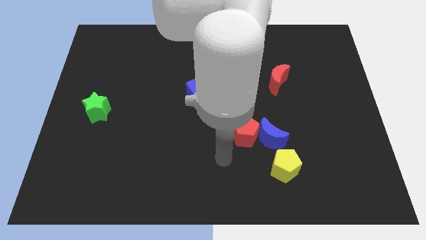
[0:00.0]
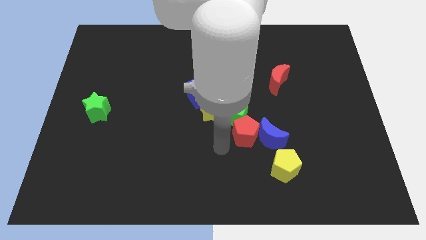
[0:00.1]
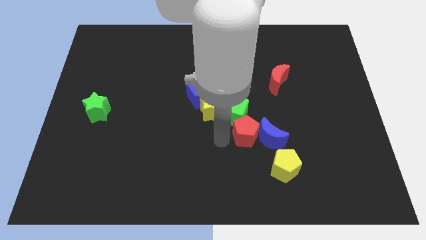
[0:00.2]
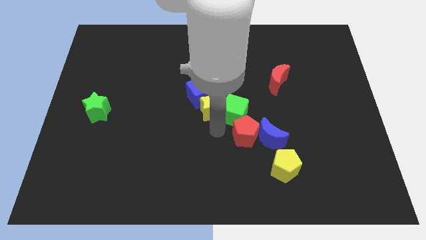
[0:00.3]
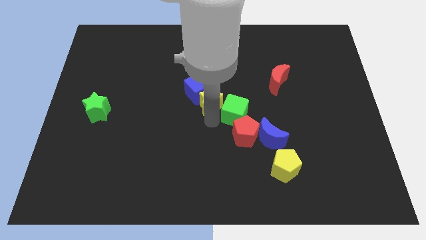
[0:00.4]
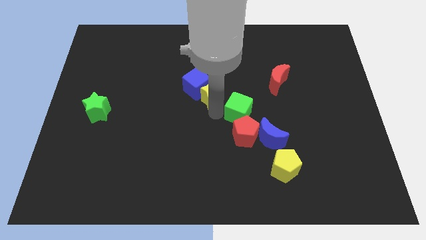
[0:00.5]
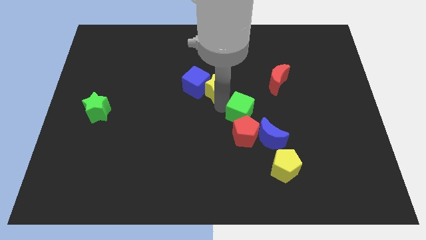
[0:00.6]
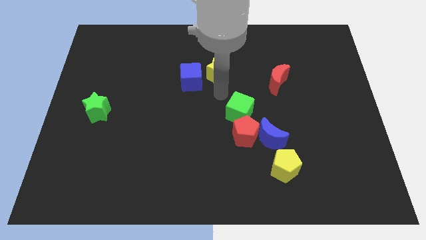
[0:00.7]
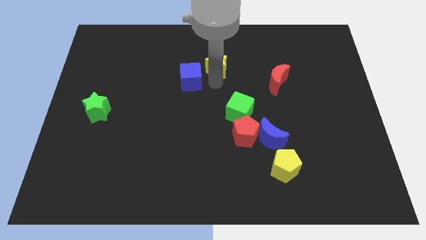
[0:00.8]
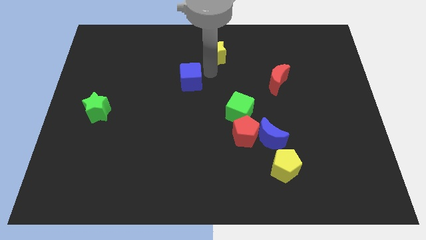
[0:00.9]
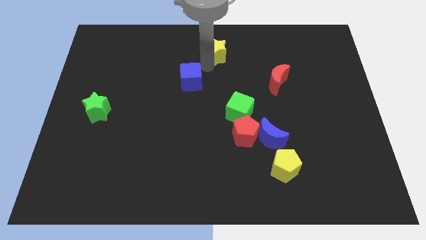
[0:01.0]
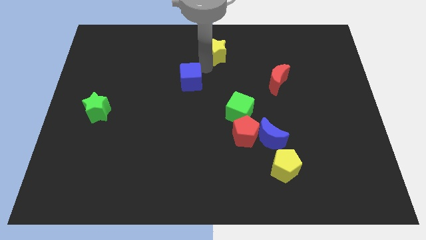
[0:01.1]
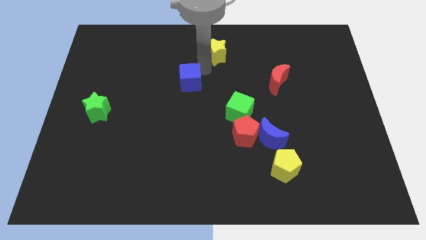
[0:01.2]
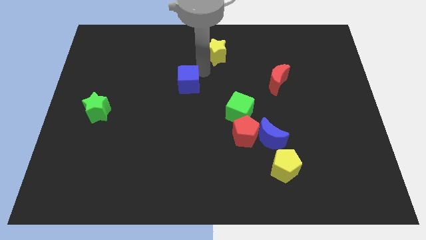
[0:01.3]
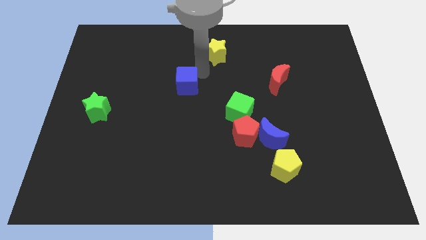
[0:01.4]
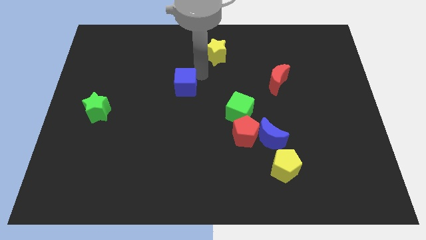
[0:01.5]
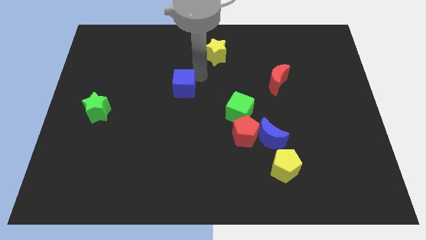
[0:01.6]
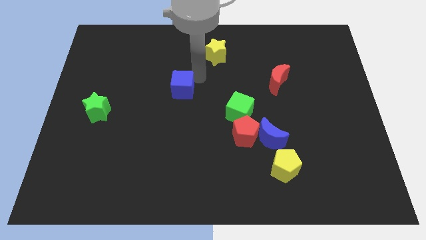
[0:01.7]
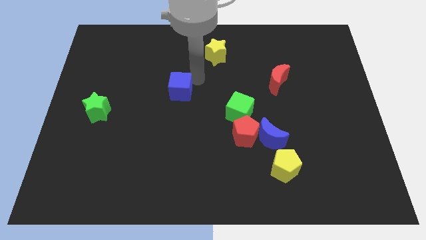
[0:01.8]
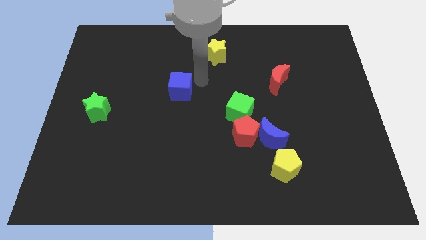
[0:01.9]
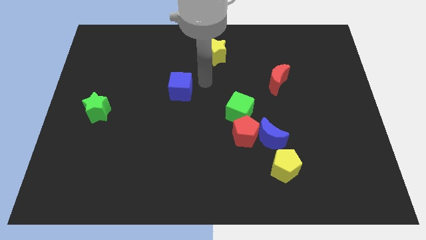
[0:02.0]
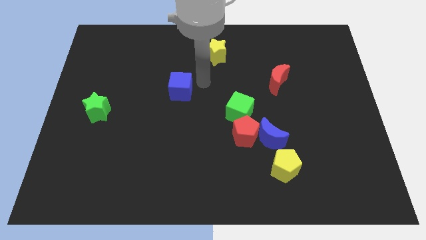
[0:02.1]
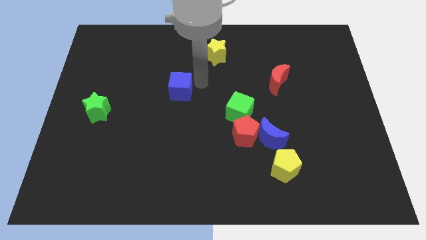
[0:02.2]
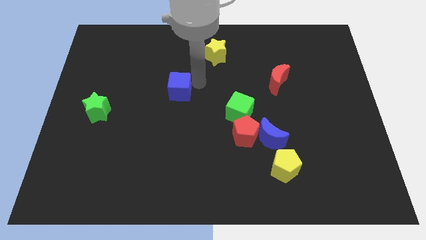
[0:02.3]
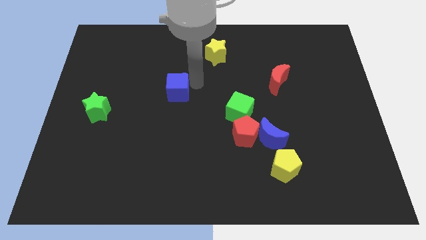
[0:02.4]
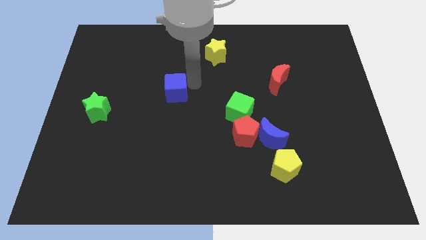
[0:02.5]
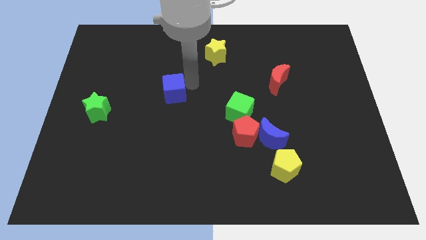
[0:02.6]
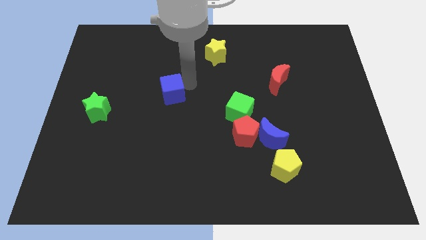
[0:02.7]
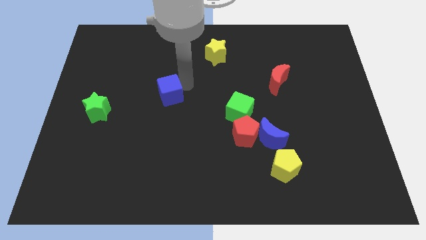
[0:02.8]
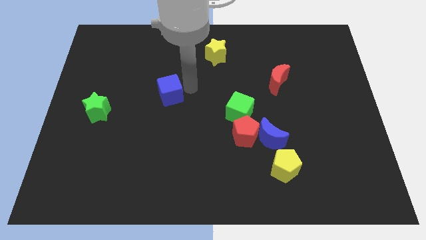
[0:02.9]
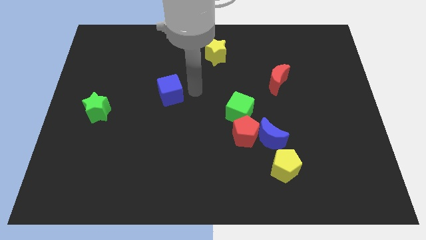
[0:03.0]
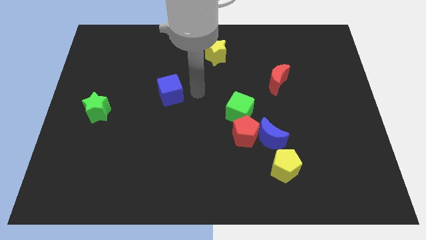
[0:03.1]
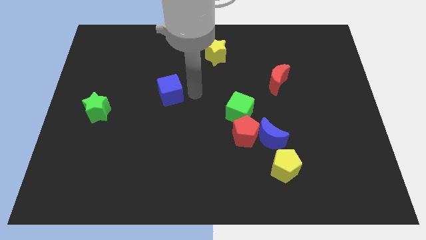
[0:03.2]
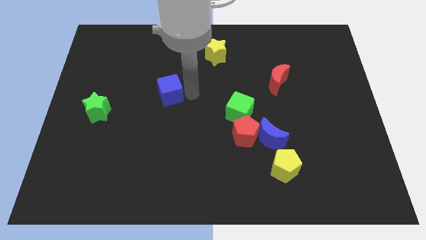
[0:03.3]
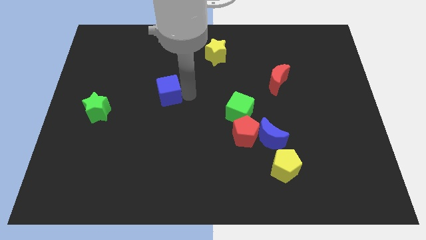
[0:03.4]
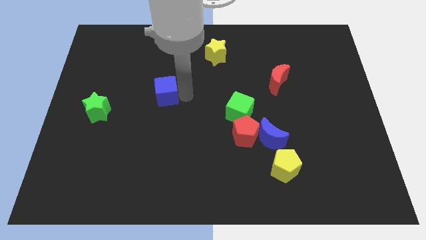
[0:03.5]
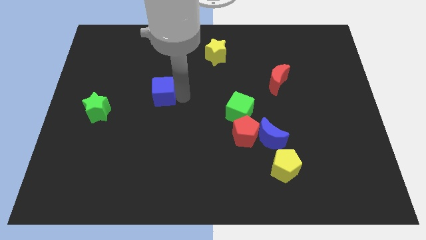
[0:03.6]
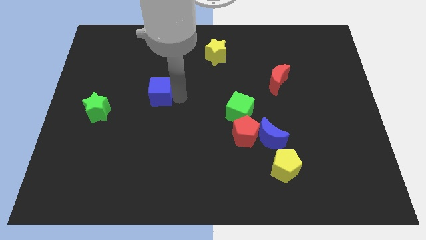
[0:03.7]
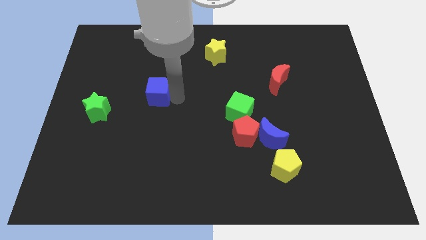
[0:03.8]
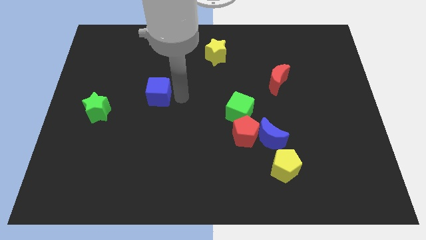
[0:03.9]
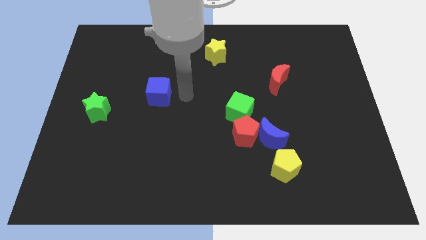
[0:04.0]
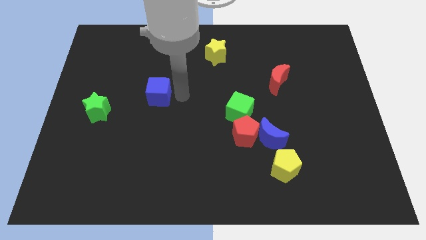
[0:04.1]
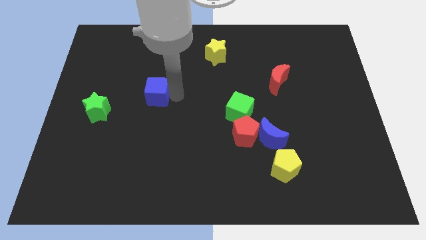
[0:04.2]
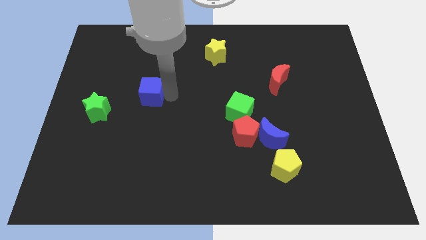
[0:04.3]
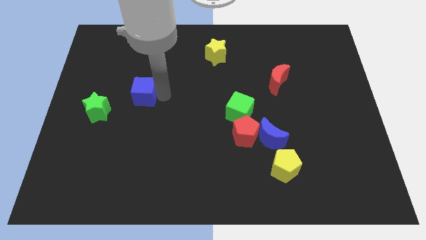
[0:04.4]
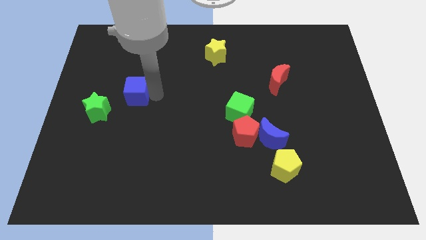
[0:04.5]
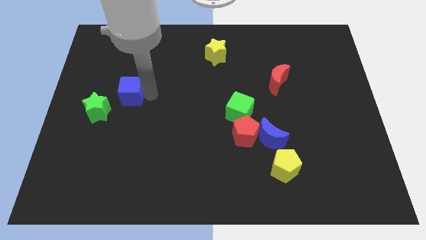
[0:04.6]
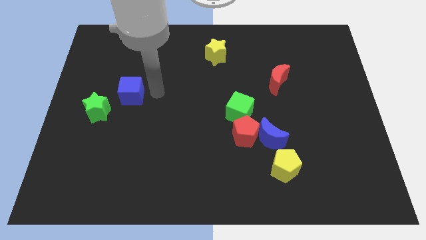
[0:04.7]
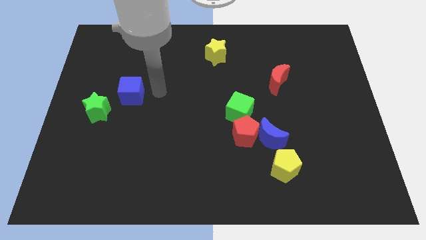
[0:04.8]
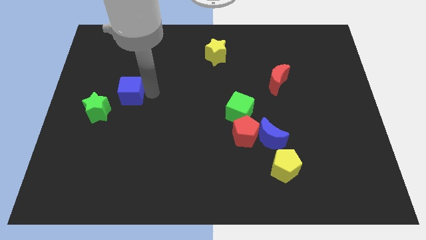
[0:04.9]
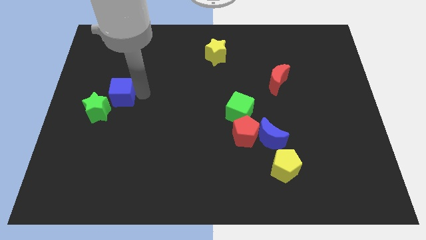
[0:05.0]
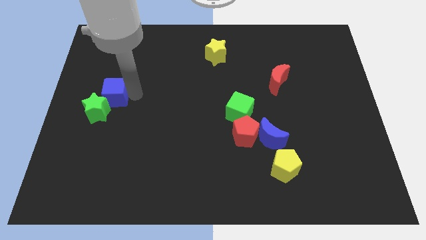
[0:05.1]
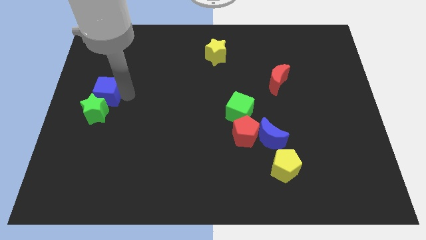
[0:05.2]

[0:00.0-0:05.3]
put the blue cube to the left side of the board

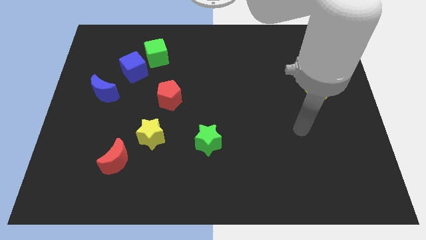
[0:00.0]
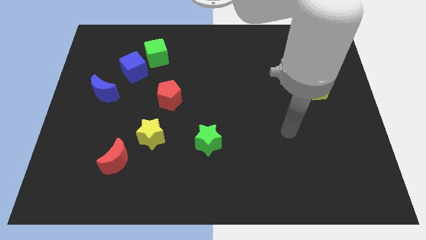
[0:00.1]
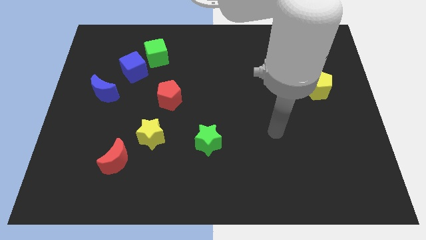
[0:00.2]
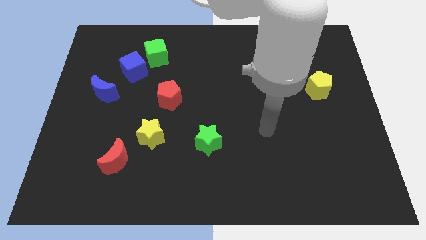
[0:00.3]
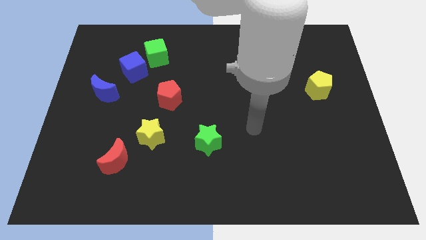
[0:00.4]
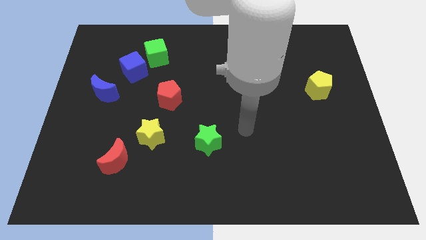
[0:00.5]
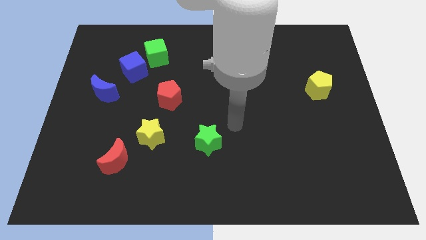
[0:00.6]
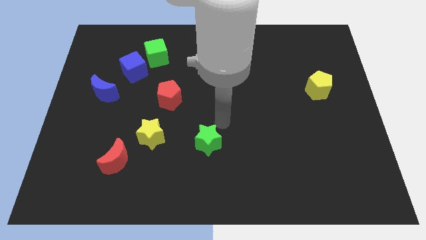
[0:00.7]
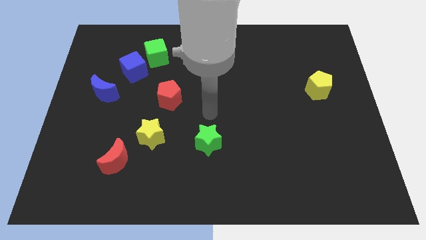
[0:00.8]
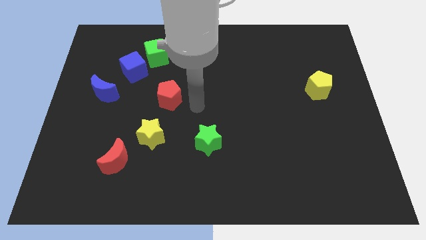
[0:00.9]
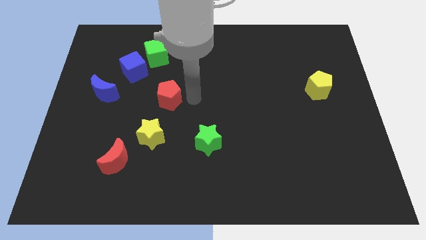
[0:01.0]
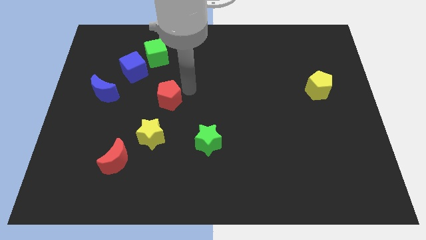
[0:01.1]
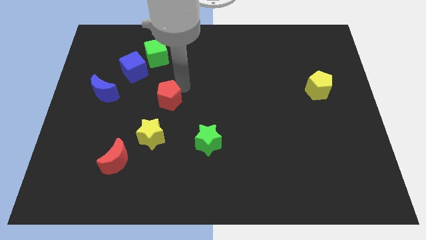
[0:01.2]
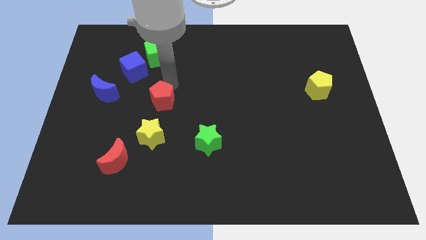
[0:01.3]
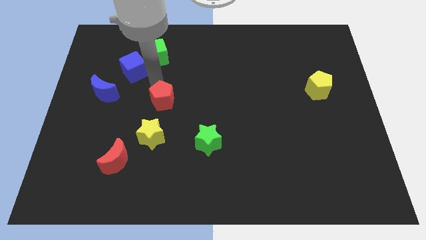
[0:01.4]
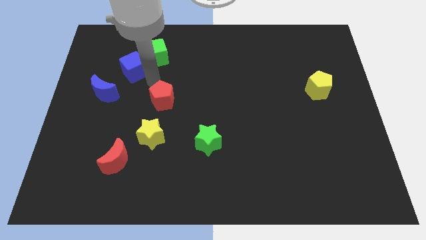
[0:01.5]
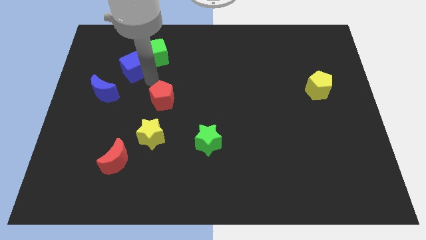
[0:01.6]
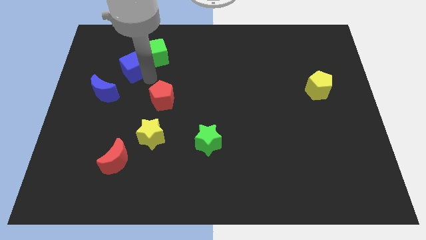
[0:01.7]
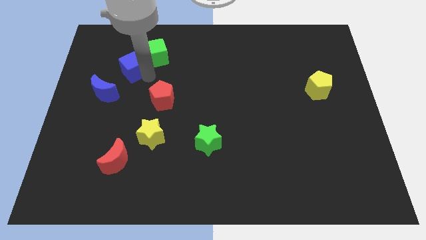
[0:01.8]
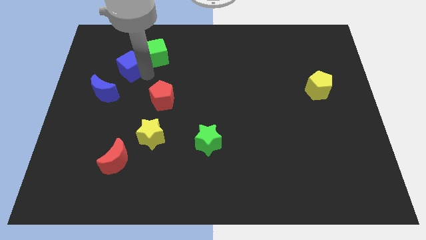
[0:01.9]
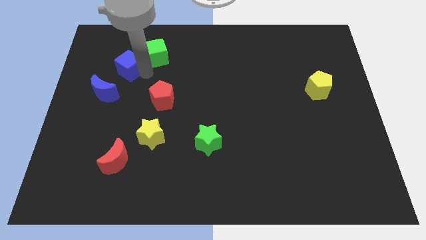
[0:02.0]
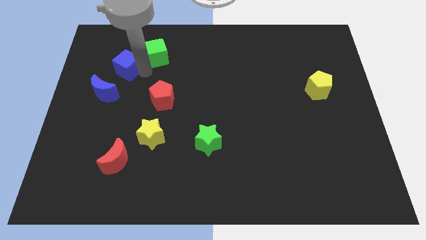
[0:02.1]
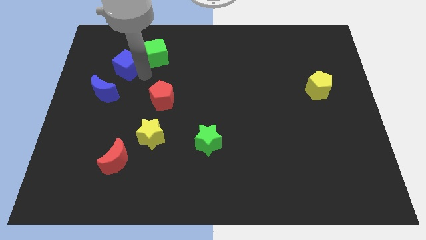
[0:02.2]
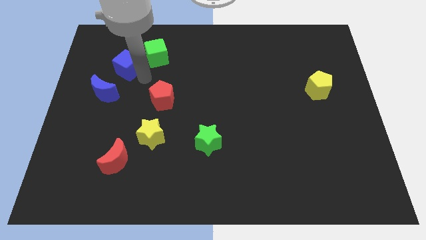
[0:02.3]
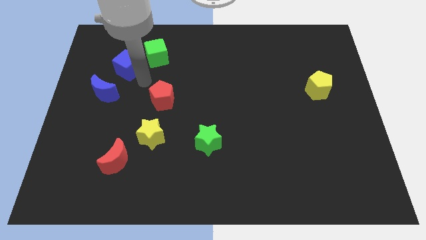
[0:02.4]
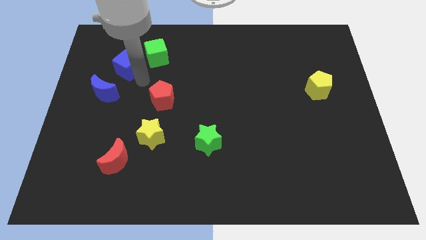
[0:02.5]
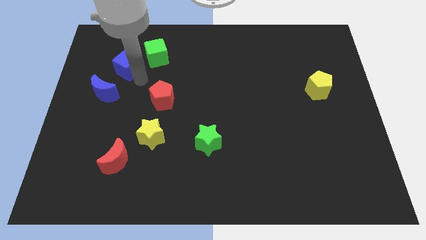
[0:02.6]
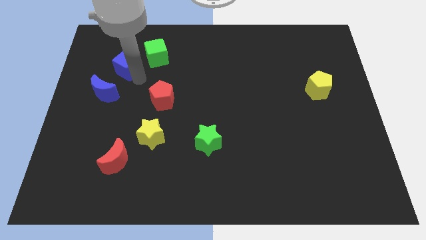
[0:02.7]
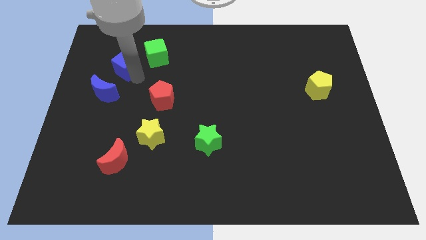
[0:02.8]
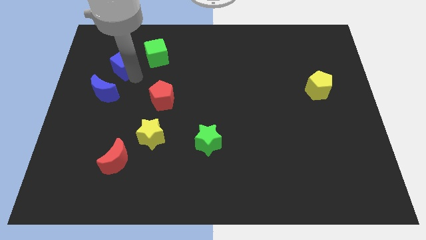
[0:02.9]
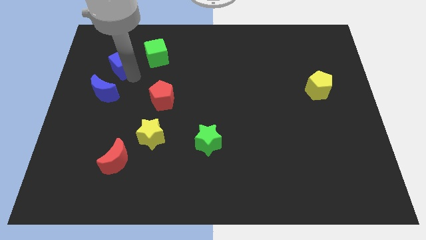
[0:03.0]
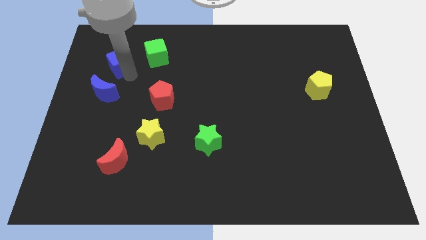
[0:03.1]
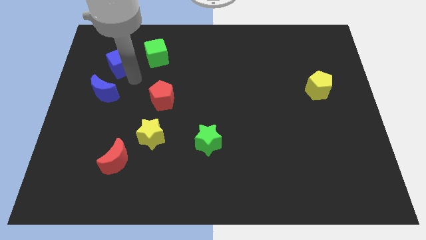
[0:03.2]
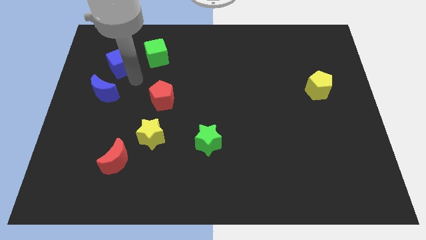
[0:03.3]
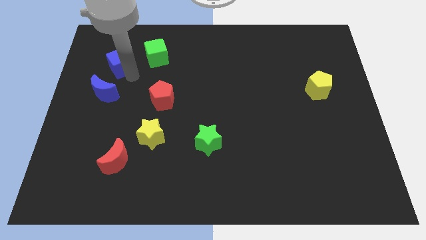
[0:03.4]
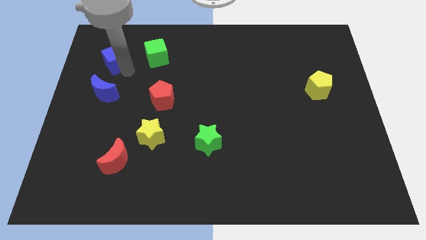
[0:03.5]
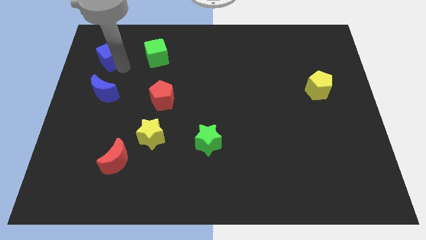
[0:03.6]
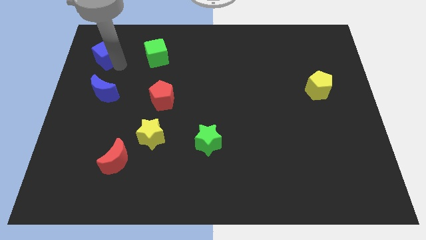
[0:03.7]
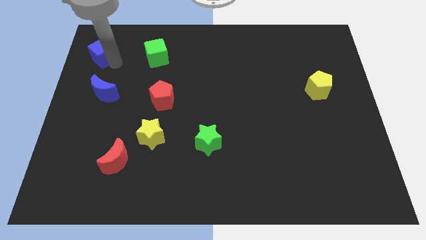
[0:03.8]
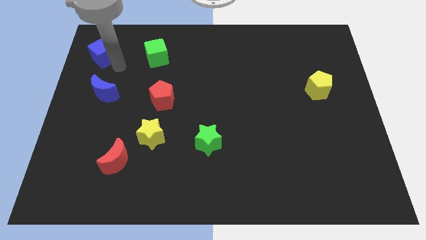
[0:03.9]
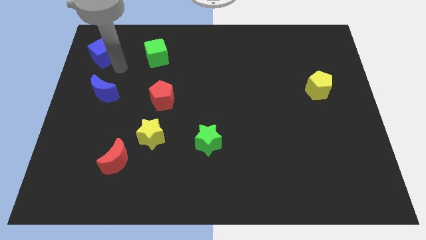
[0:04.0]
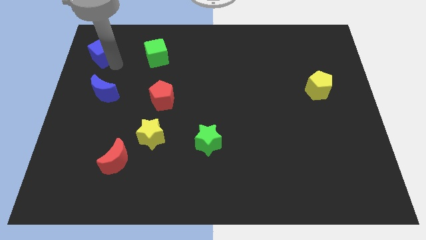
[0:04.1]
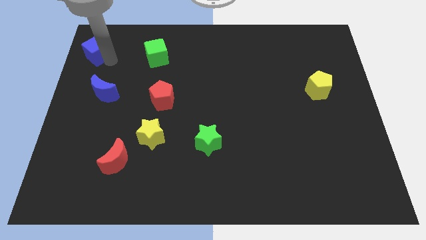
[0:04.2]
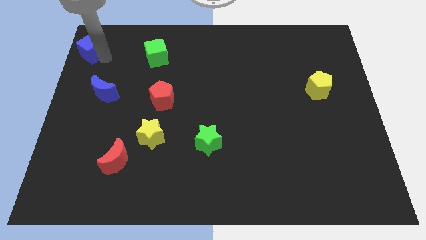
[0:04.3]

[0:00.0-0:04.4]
put the blue cube to the upper left corner
